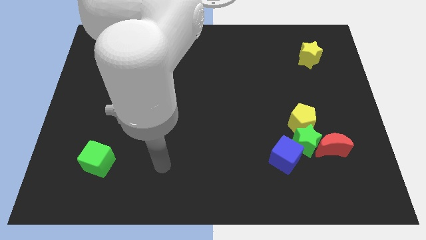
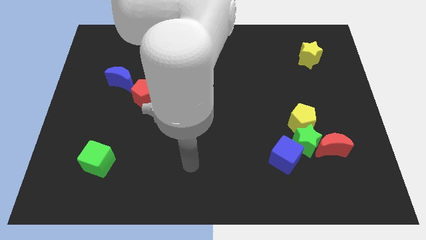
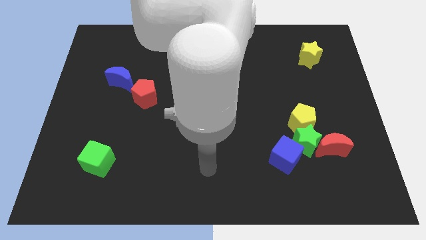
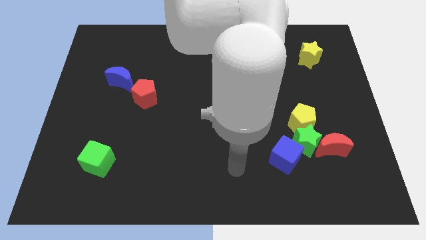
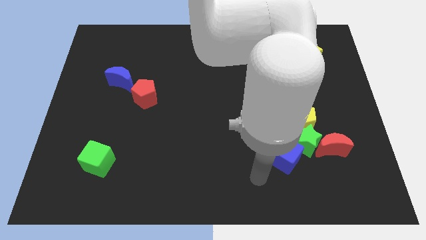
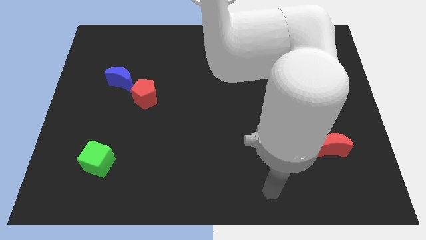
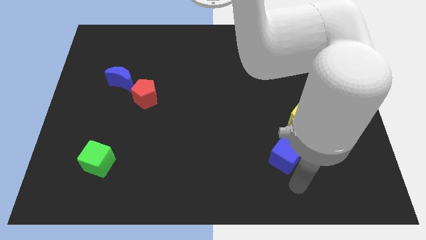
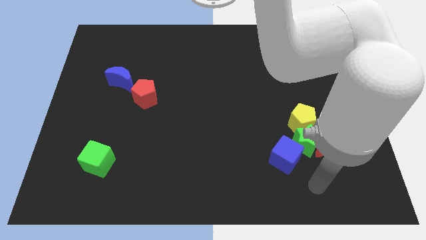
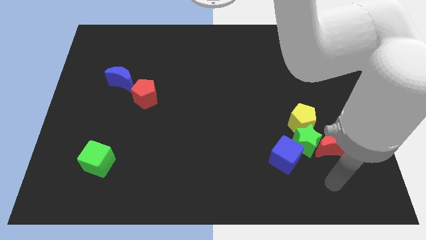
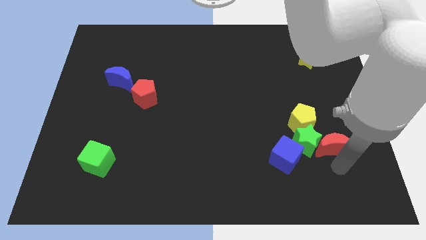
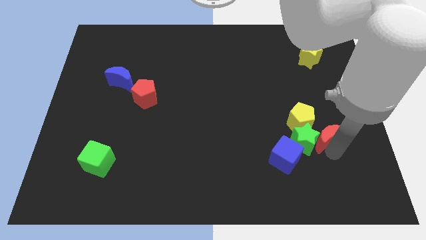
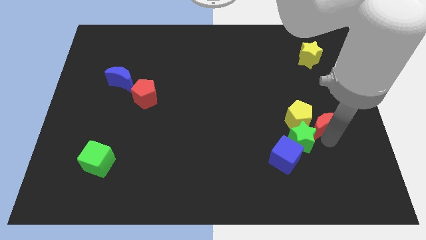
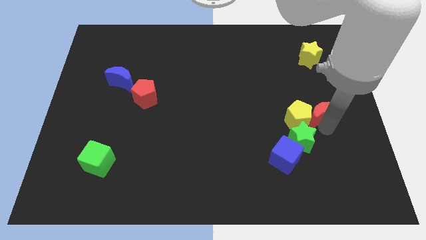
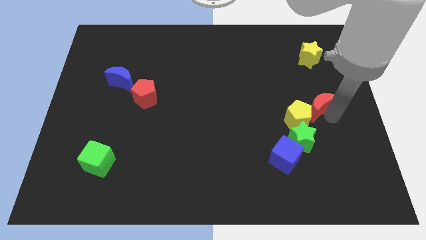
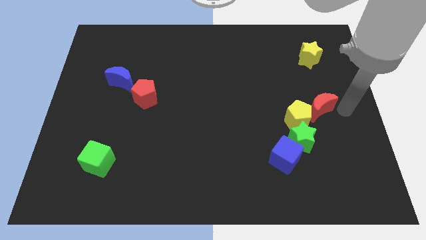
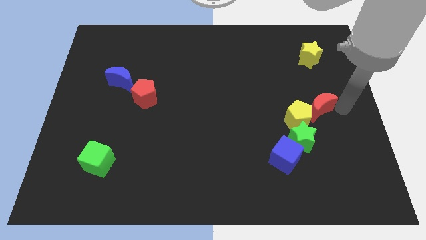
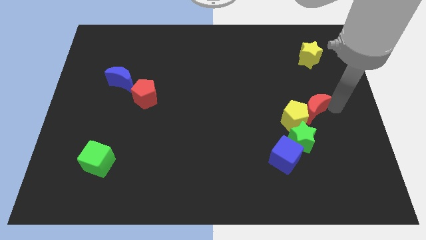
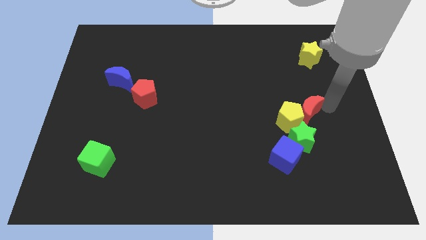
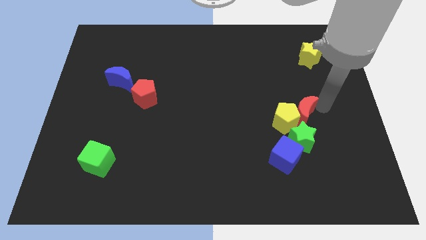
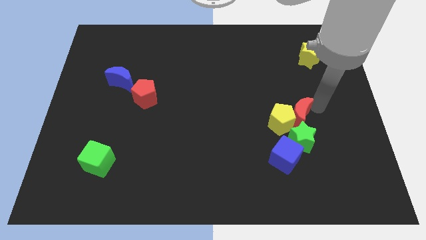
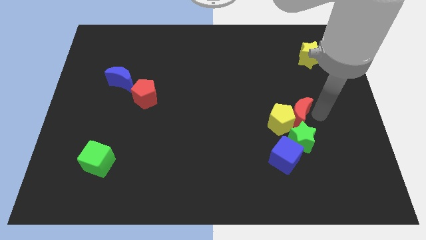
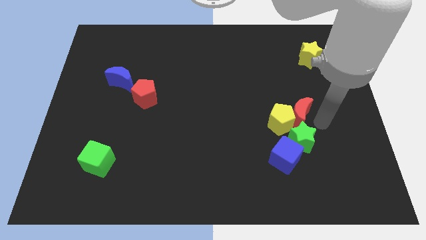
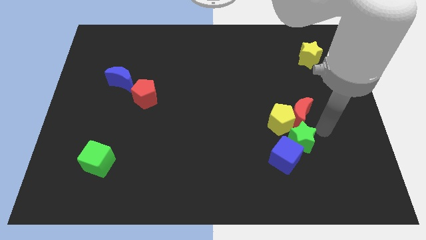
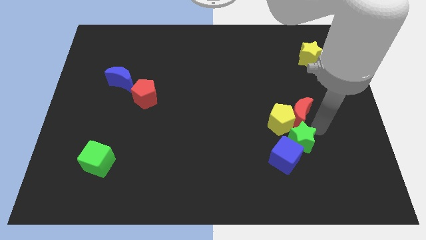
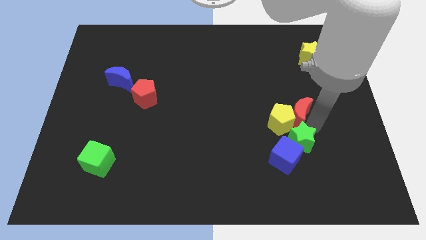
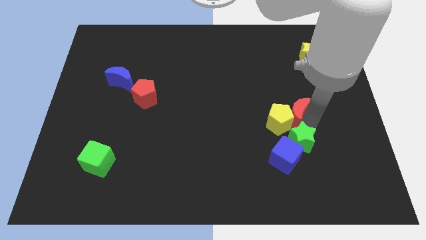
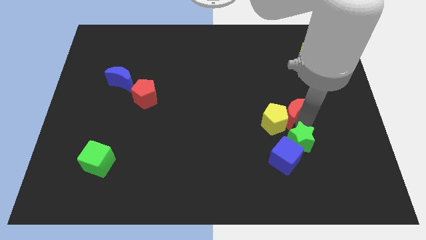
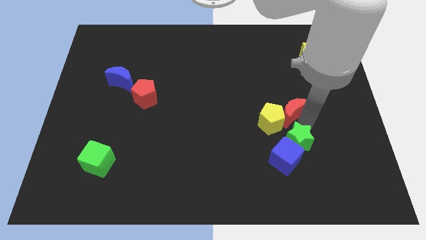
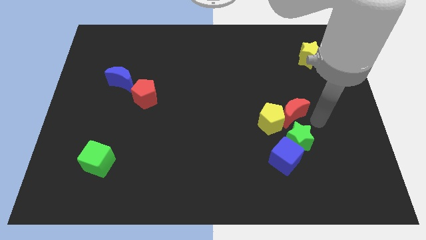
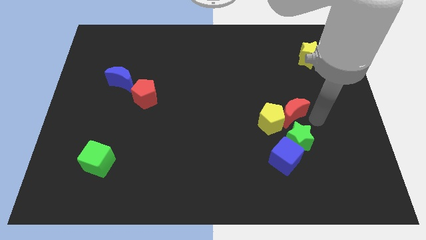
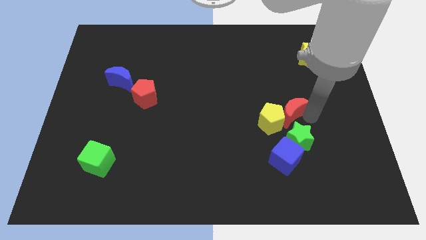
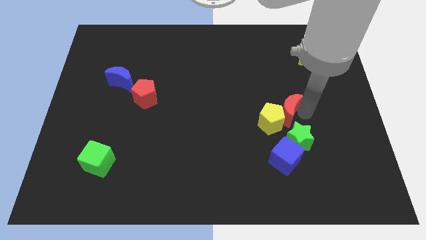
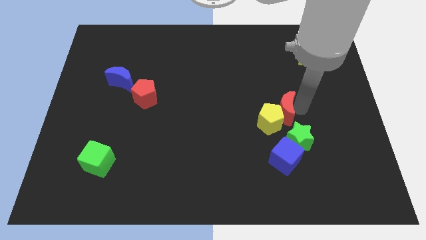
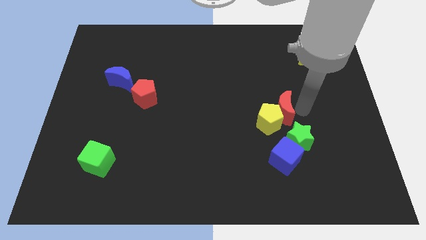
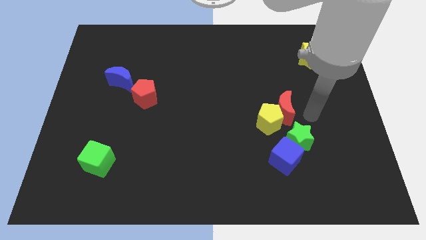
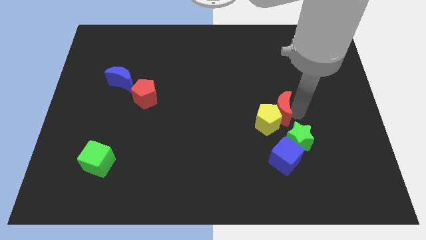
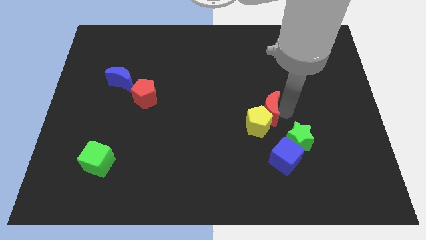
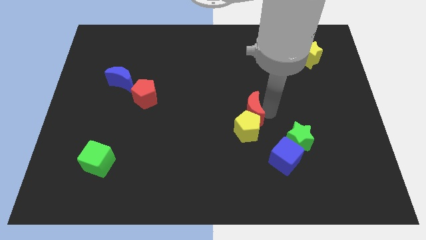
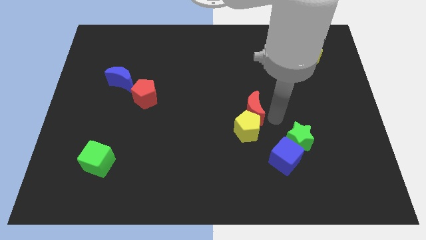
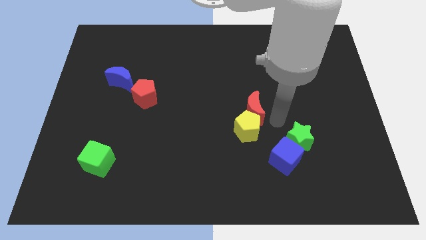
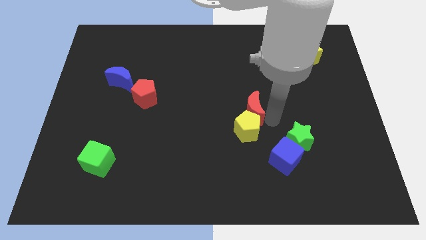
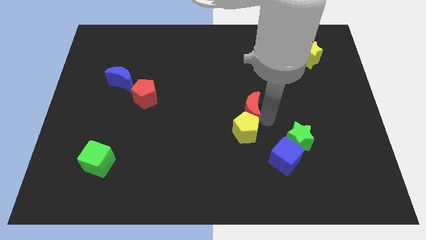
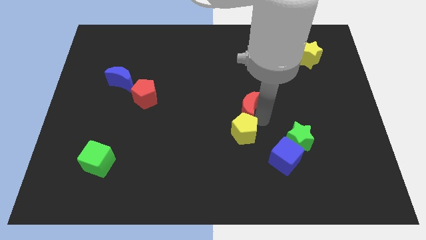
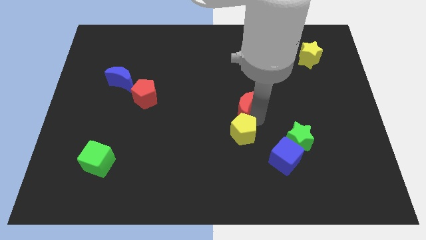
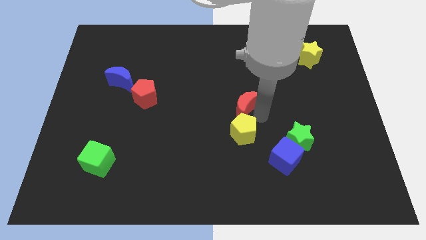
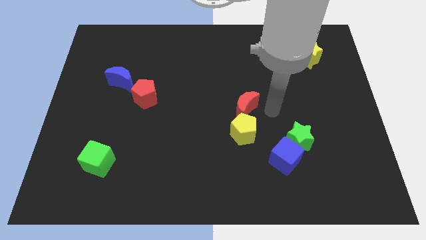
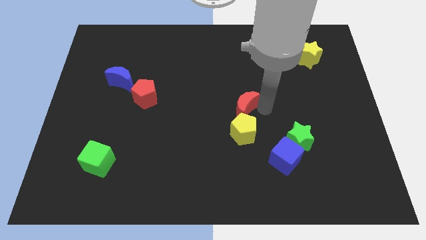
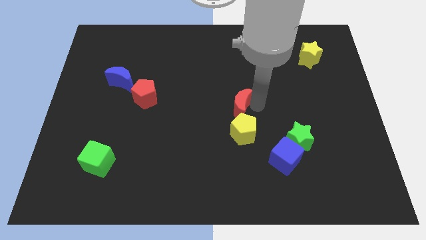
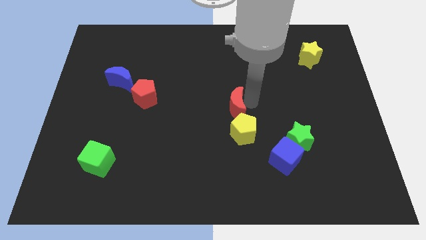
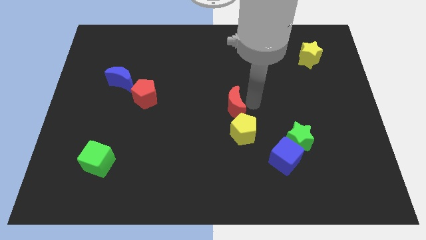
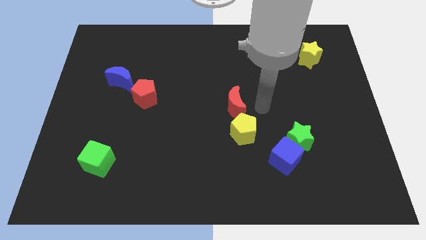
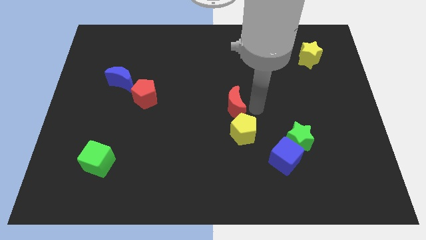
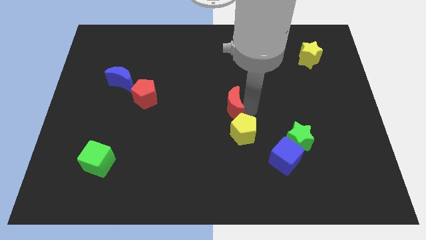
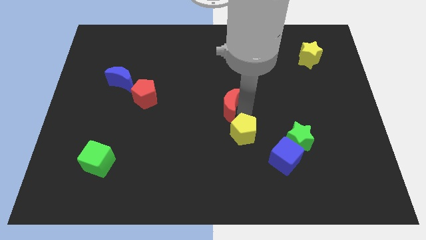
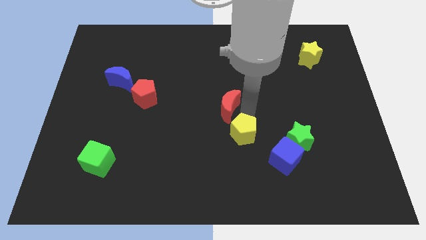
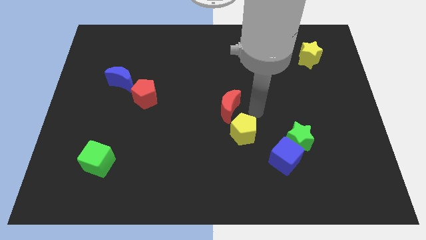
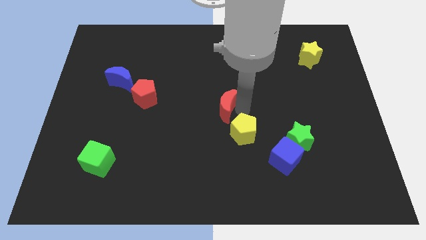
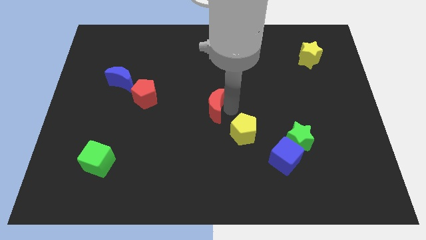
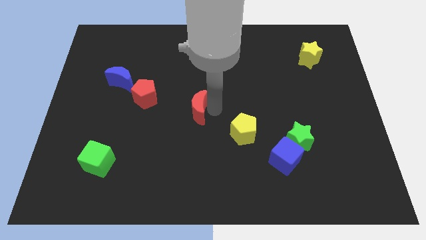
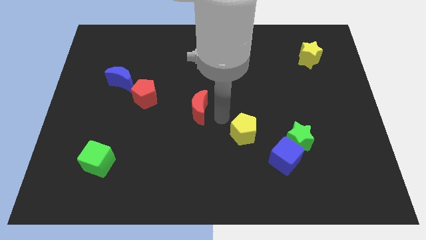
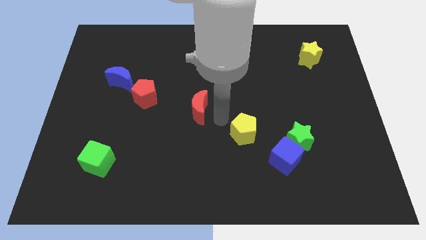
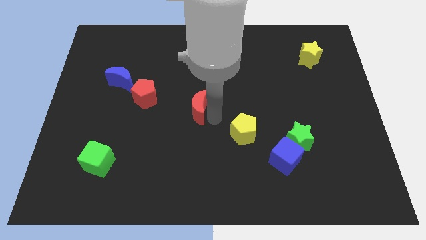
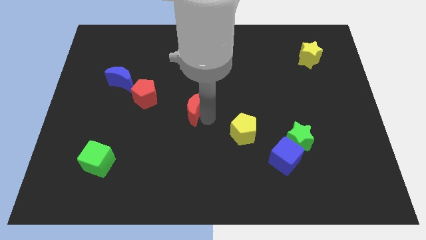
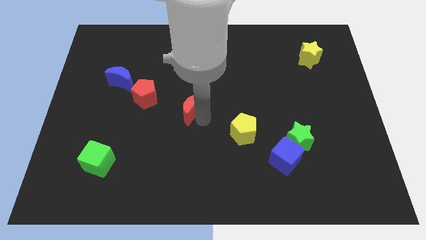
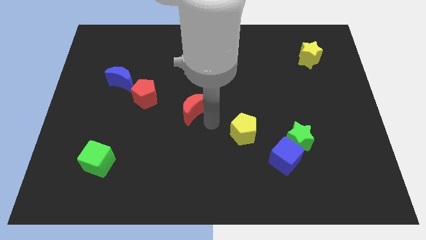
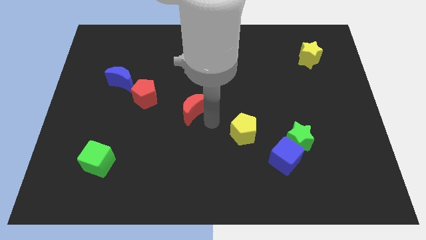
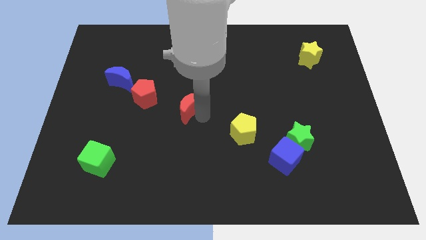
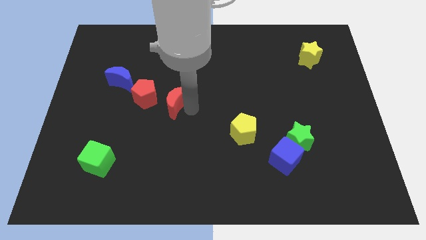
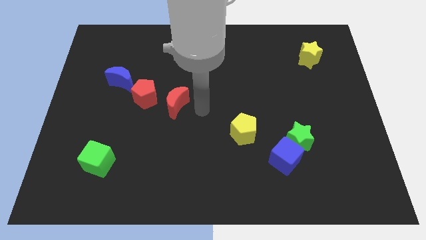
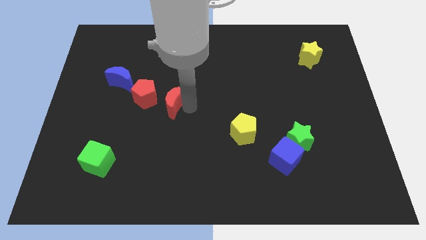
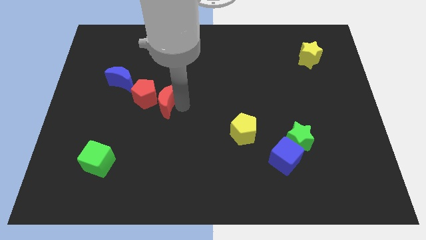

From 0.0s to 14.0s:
push the red moon close to the red pentagon
